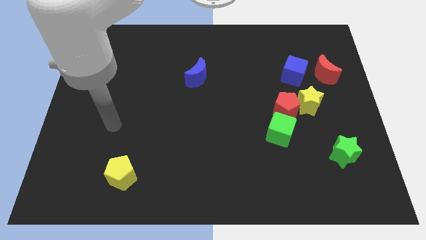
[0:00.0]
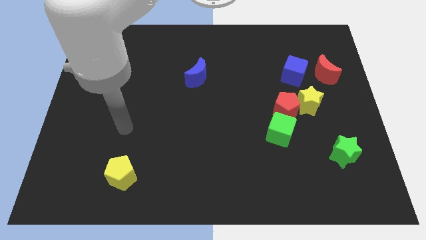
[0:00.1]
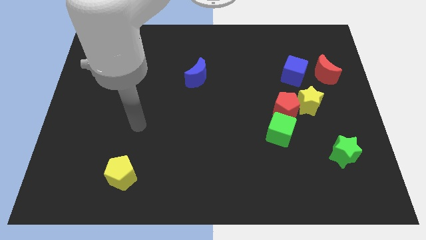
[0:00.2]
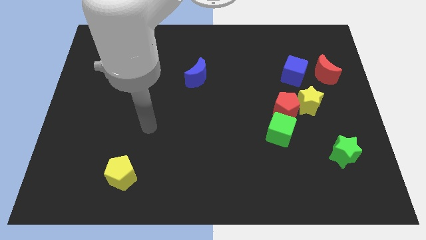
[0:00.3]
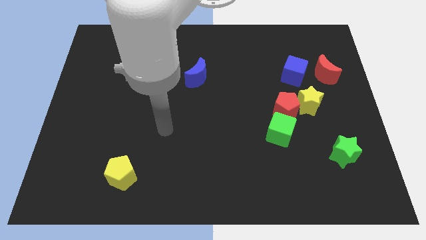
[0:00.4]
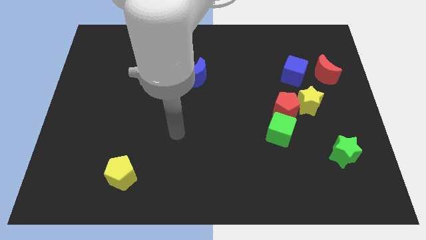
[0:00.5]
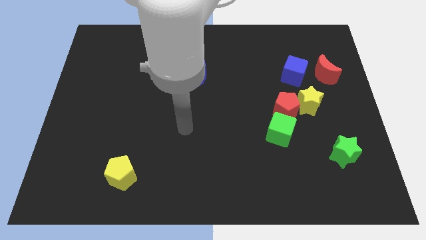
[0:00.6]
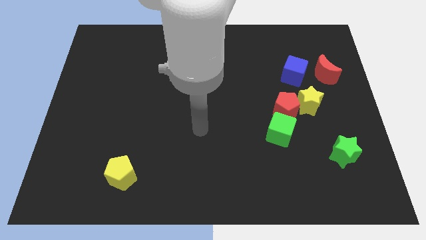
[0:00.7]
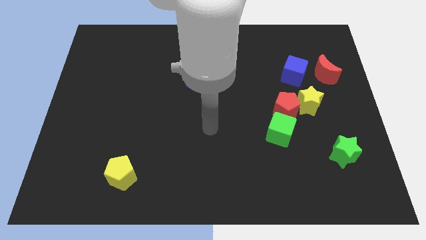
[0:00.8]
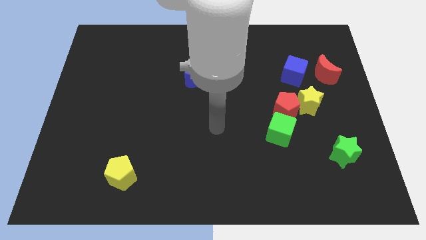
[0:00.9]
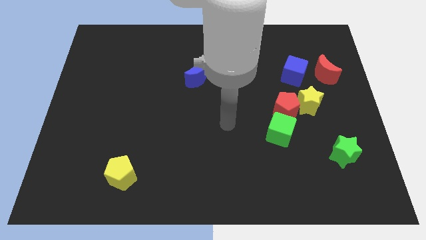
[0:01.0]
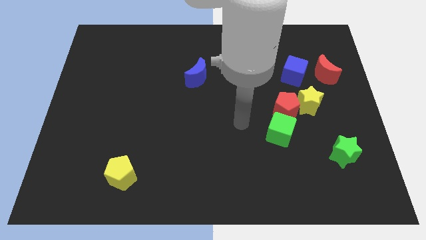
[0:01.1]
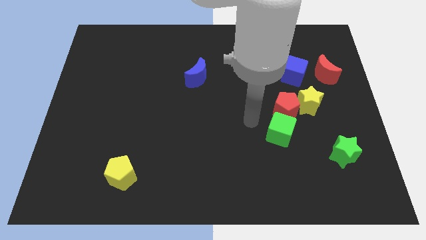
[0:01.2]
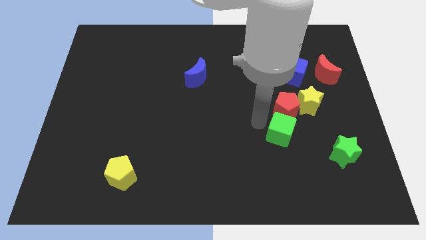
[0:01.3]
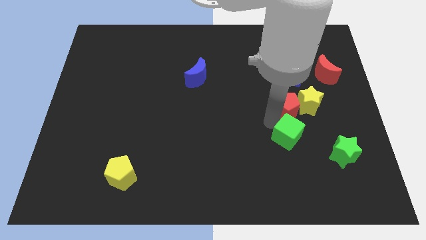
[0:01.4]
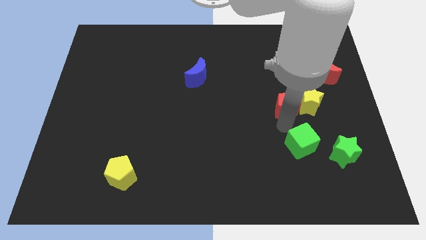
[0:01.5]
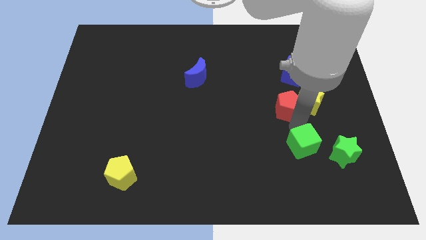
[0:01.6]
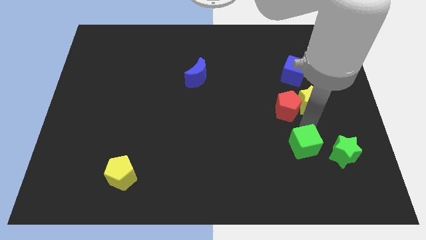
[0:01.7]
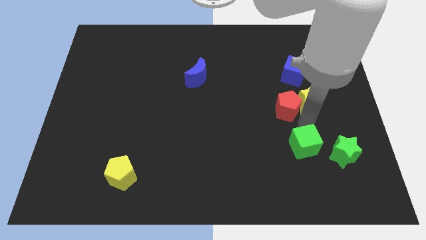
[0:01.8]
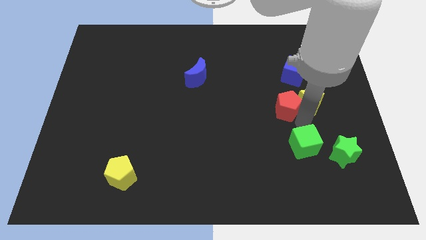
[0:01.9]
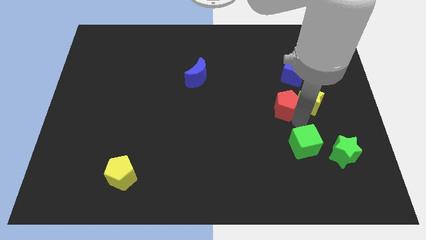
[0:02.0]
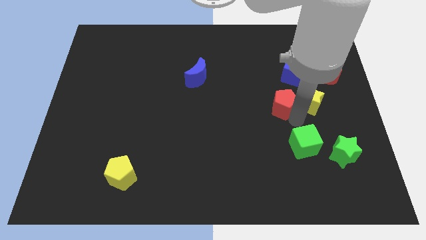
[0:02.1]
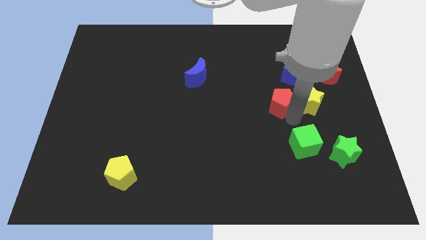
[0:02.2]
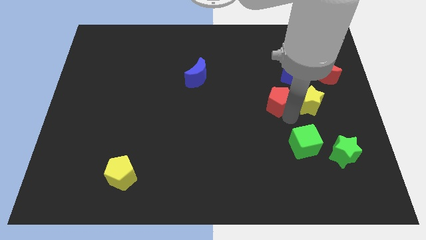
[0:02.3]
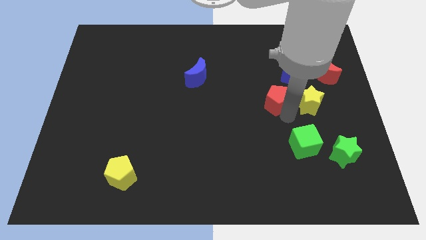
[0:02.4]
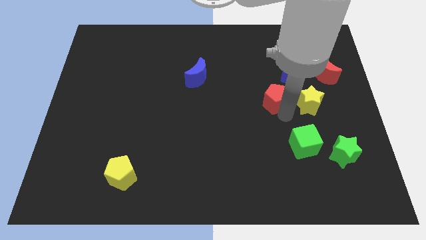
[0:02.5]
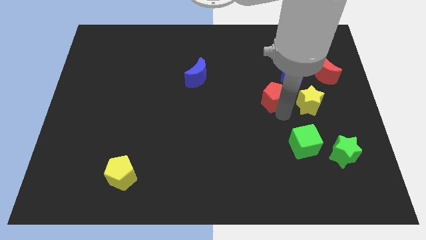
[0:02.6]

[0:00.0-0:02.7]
move the red pentagon away from the yellow star and green cube

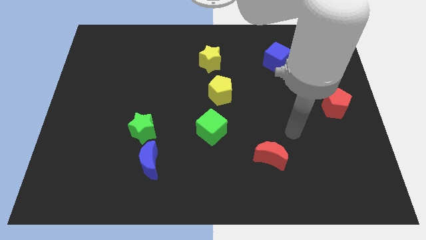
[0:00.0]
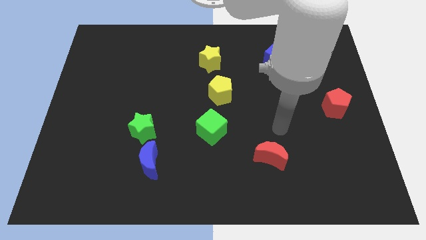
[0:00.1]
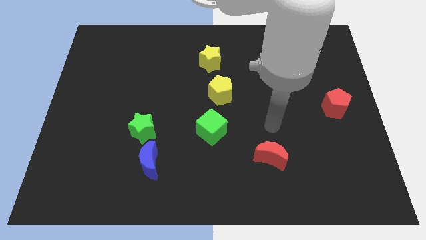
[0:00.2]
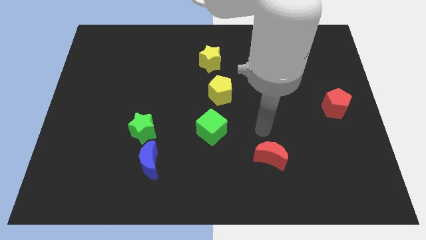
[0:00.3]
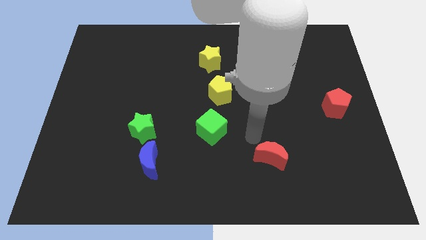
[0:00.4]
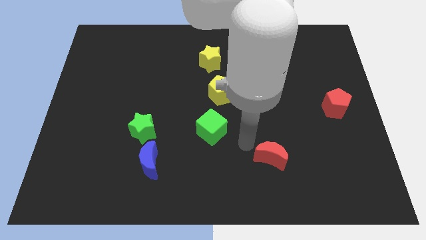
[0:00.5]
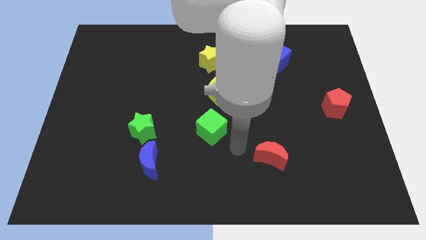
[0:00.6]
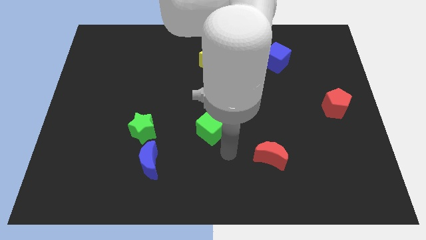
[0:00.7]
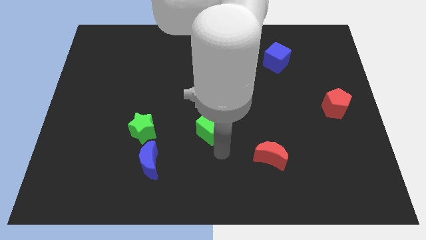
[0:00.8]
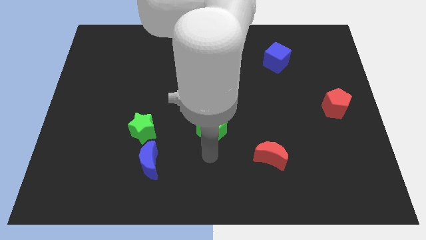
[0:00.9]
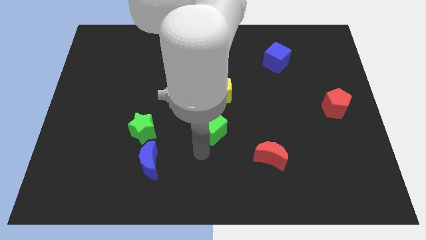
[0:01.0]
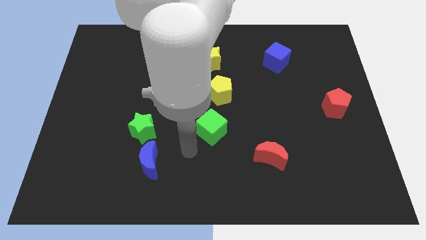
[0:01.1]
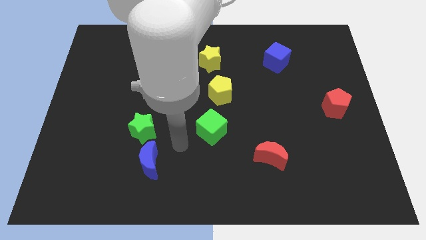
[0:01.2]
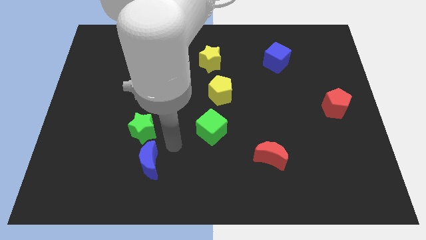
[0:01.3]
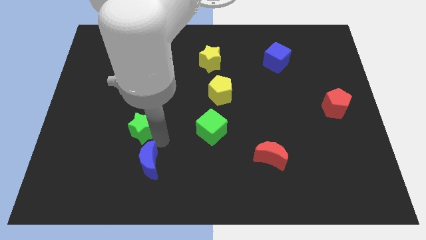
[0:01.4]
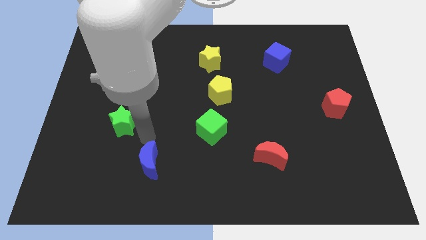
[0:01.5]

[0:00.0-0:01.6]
separate the blue moon from the green star

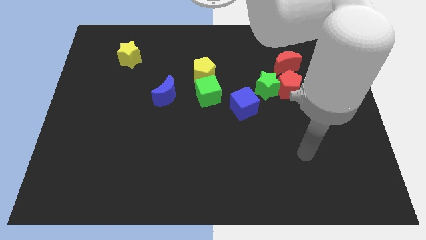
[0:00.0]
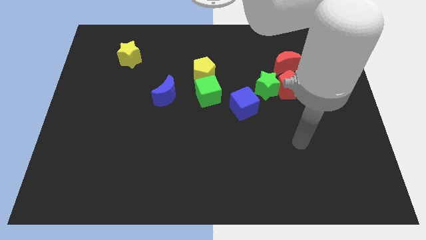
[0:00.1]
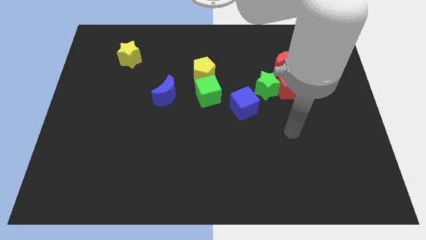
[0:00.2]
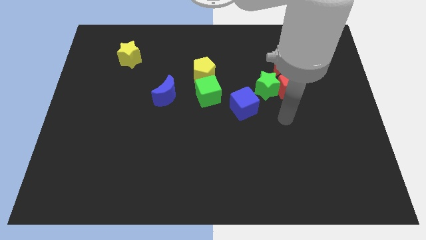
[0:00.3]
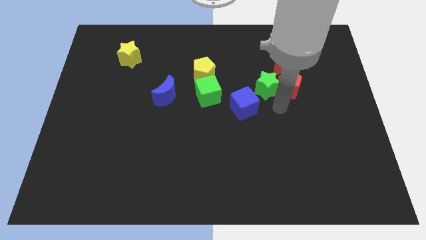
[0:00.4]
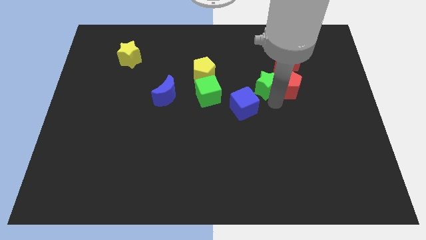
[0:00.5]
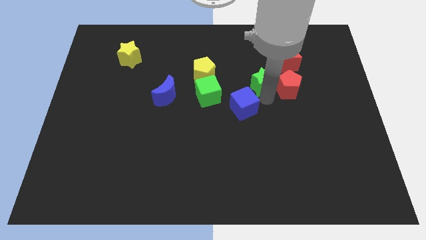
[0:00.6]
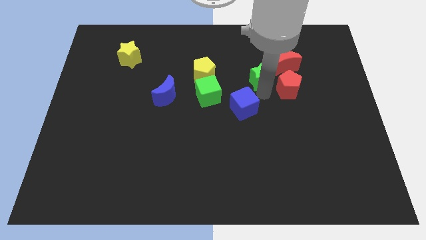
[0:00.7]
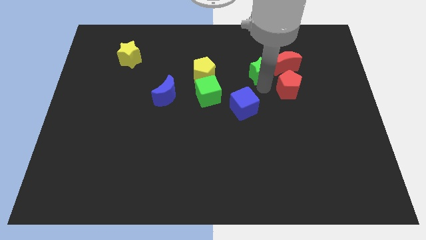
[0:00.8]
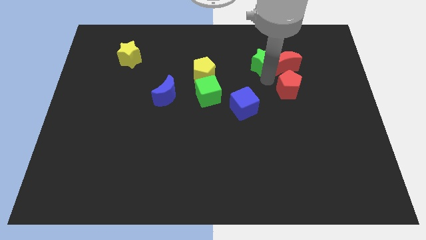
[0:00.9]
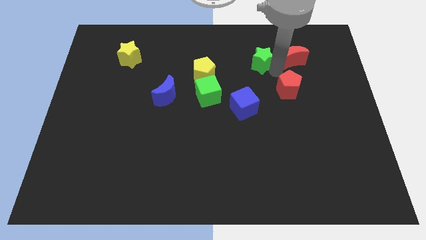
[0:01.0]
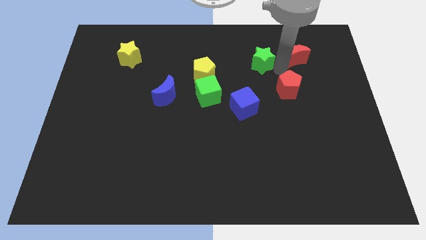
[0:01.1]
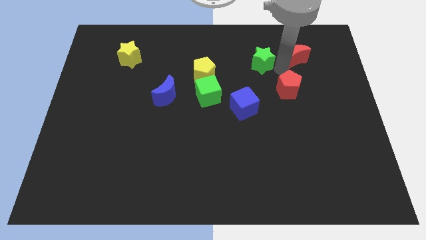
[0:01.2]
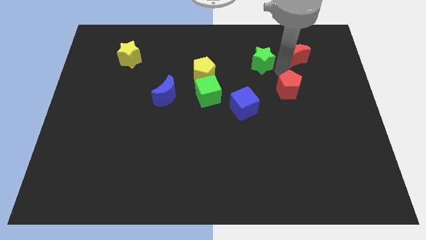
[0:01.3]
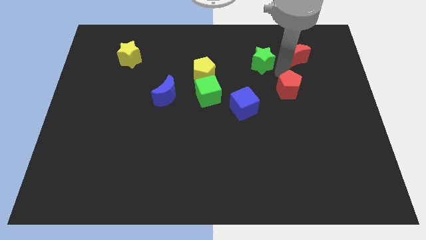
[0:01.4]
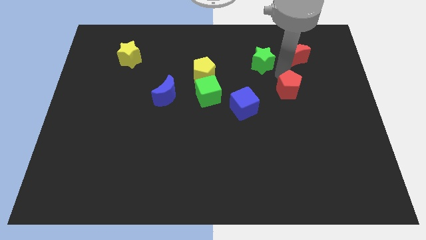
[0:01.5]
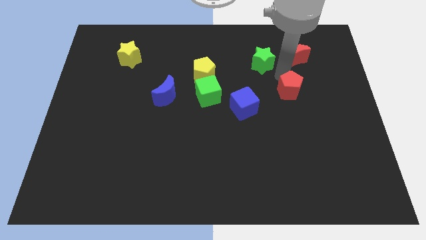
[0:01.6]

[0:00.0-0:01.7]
pull the red pentagon apart from the green star and red moon

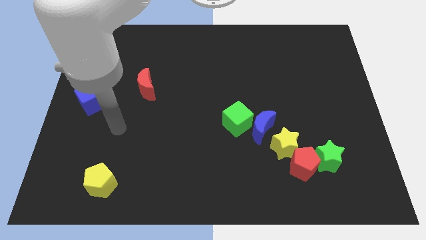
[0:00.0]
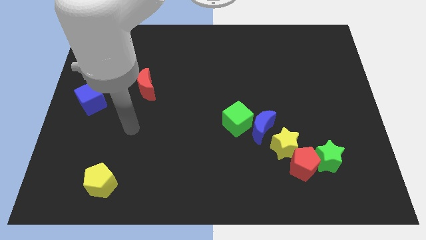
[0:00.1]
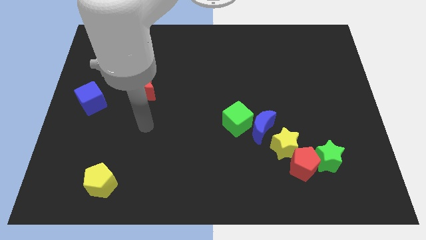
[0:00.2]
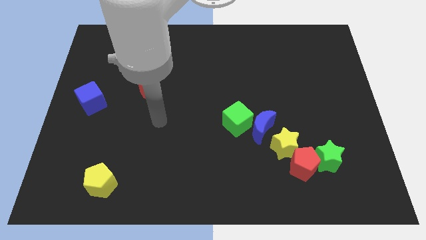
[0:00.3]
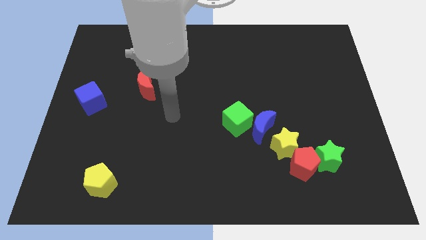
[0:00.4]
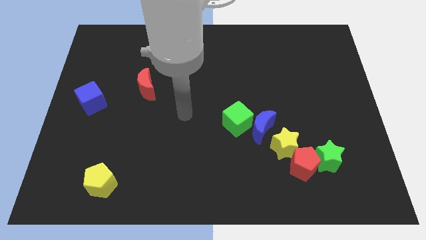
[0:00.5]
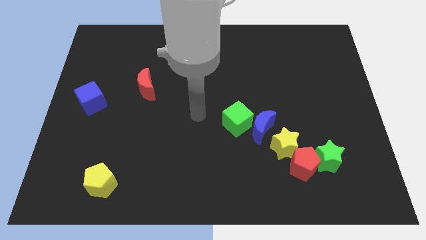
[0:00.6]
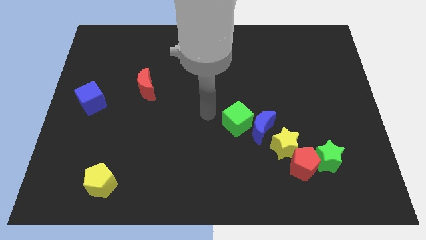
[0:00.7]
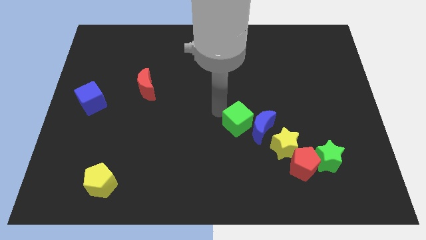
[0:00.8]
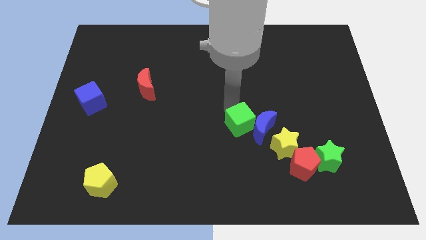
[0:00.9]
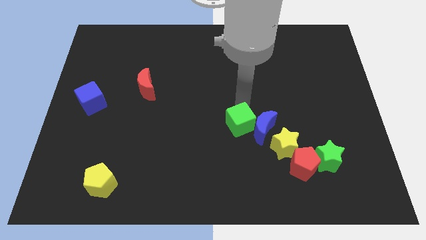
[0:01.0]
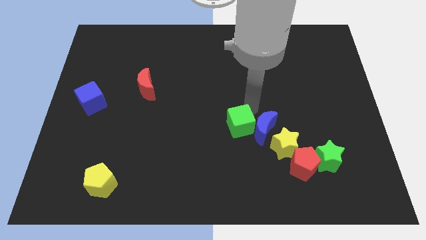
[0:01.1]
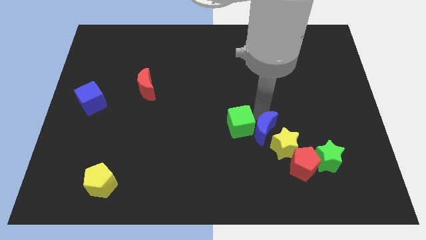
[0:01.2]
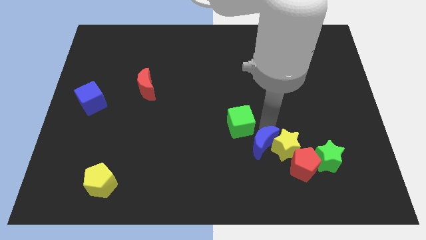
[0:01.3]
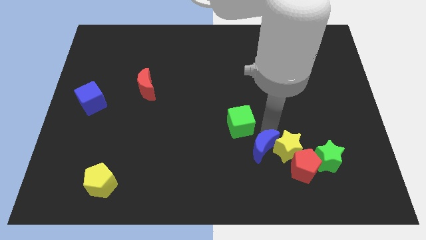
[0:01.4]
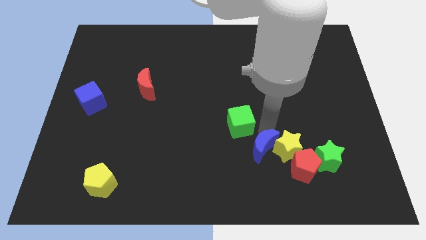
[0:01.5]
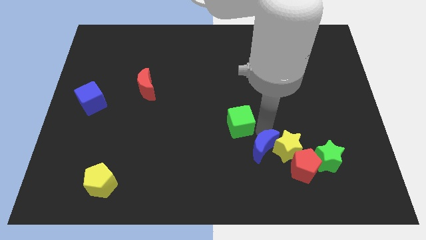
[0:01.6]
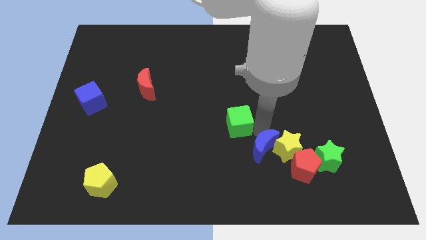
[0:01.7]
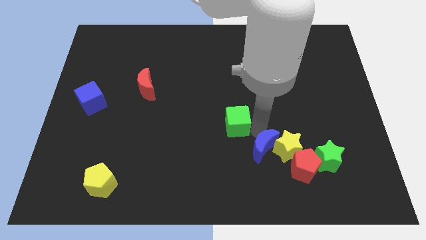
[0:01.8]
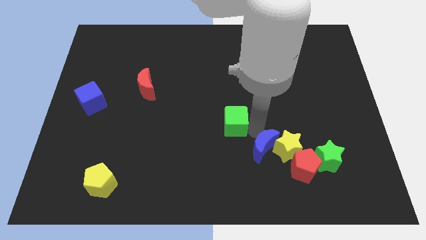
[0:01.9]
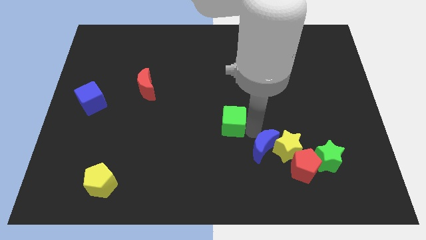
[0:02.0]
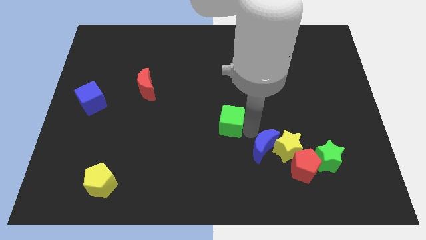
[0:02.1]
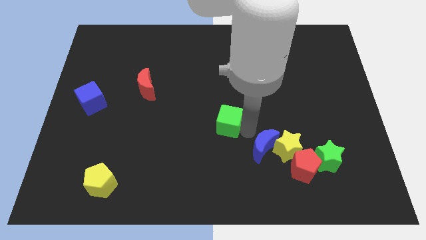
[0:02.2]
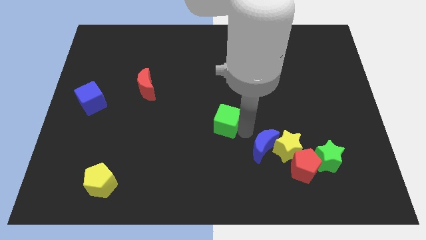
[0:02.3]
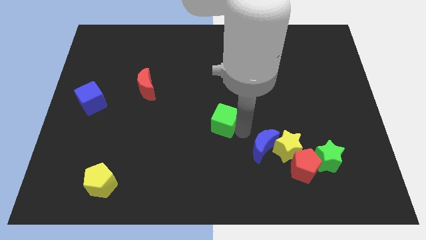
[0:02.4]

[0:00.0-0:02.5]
separate the green cube from the blue moon

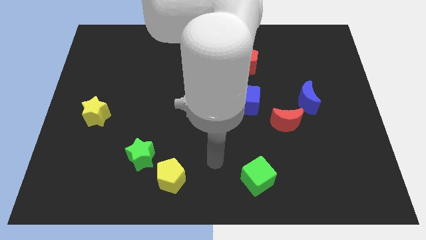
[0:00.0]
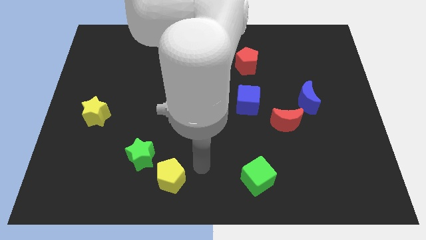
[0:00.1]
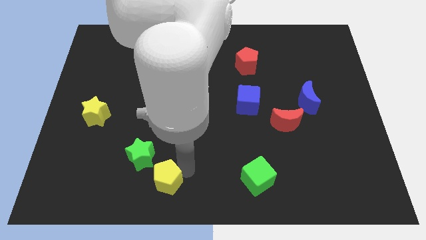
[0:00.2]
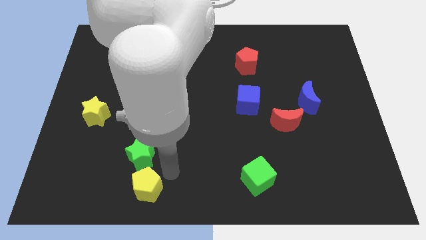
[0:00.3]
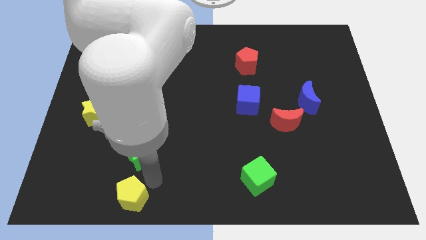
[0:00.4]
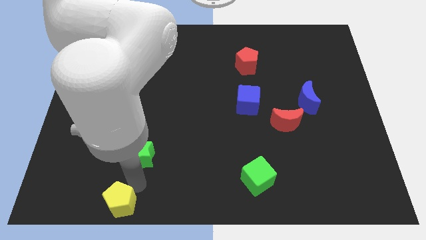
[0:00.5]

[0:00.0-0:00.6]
move the green star away from the yellow pentagon

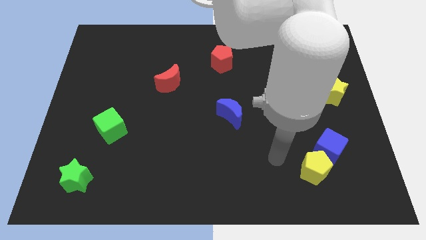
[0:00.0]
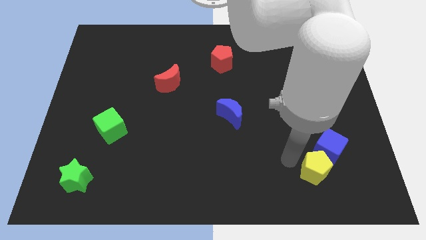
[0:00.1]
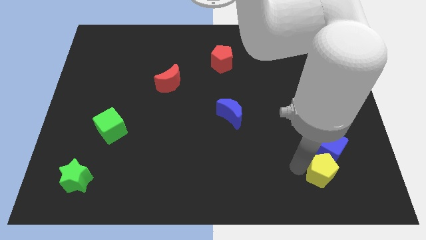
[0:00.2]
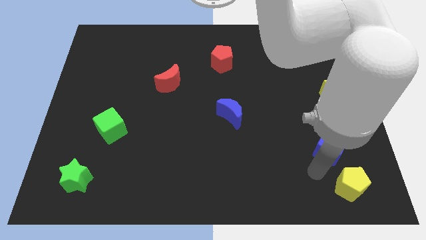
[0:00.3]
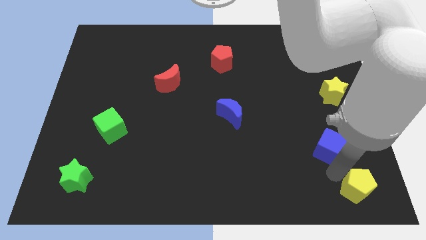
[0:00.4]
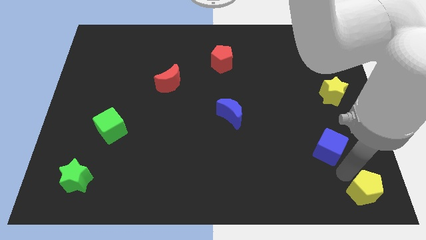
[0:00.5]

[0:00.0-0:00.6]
pull the blue cube apart from the yellow pentagon
